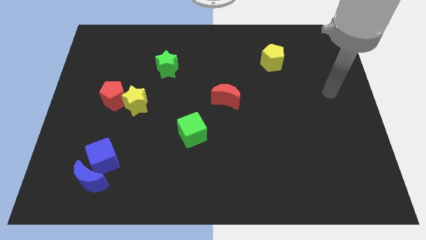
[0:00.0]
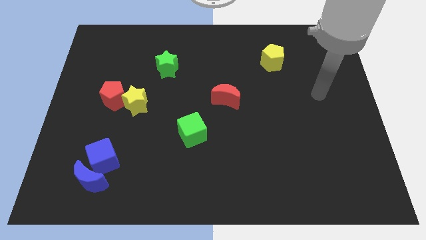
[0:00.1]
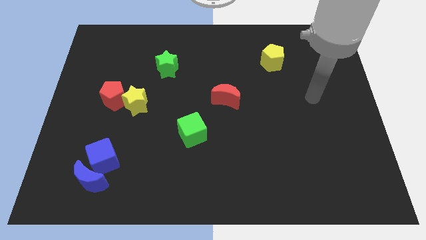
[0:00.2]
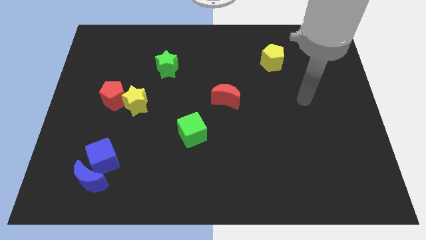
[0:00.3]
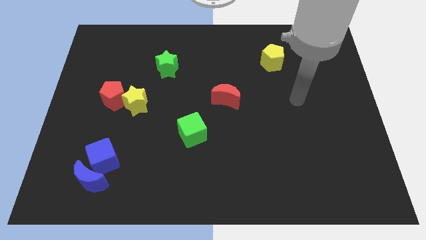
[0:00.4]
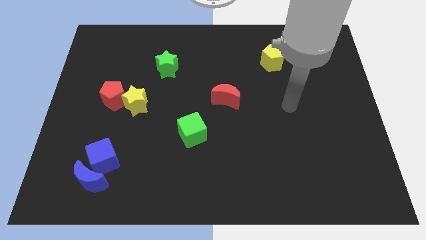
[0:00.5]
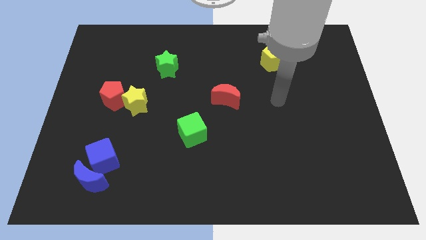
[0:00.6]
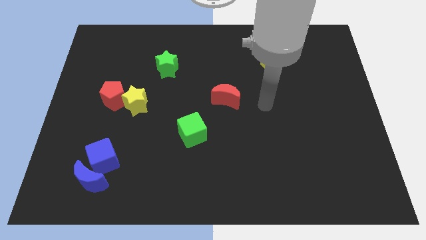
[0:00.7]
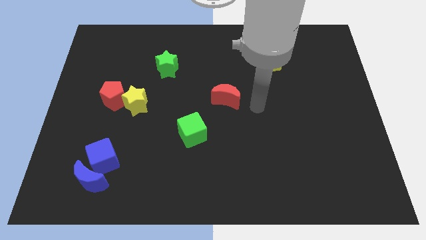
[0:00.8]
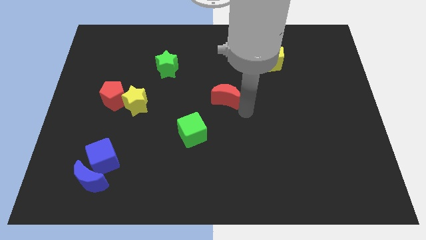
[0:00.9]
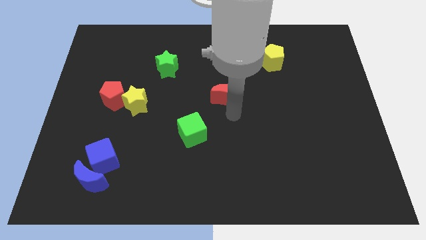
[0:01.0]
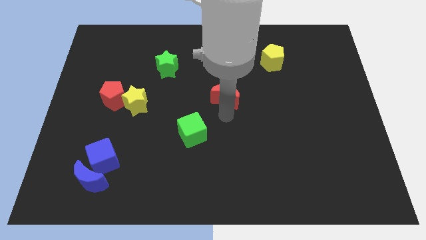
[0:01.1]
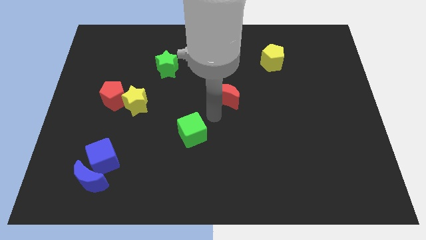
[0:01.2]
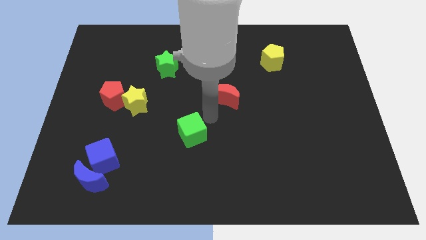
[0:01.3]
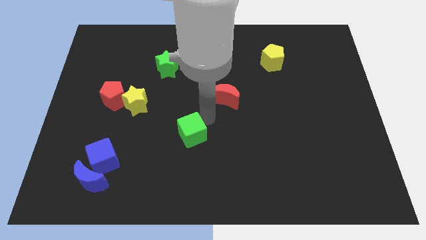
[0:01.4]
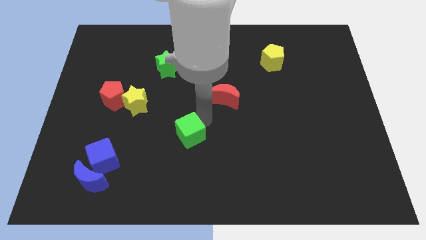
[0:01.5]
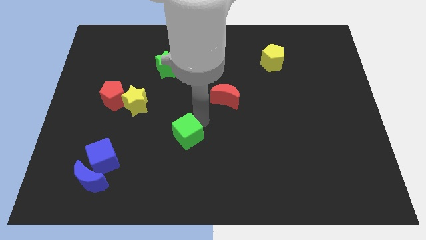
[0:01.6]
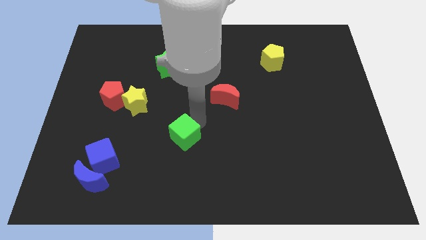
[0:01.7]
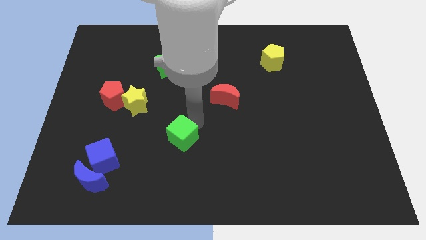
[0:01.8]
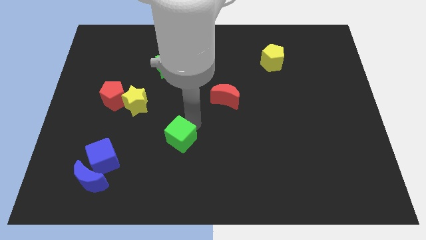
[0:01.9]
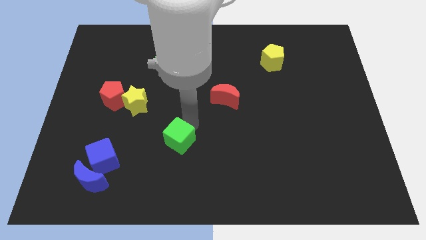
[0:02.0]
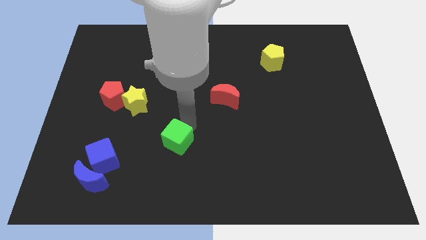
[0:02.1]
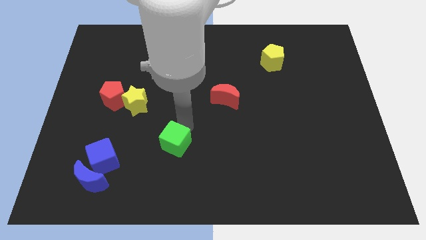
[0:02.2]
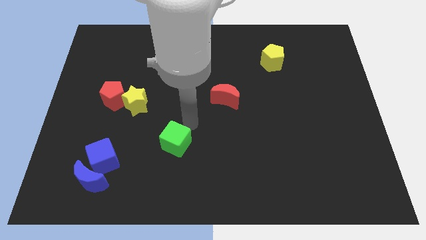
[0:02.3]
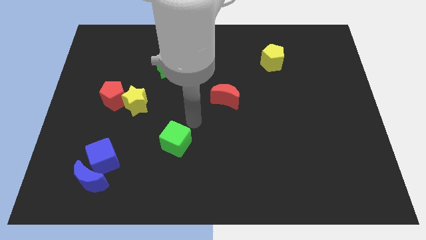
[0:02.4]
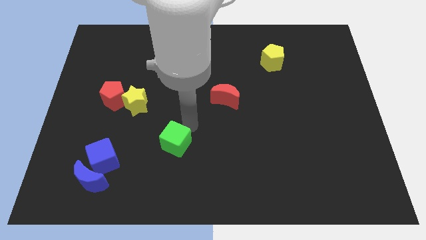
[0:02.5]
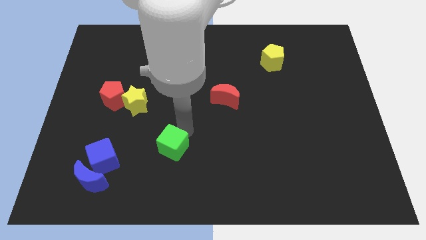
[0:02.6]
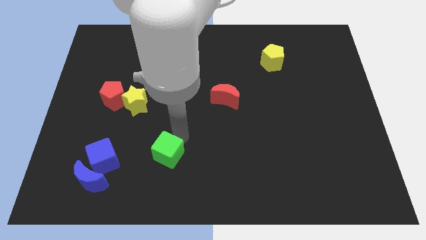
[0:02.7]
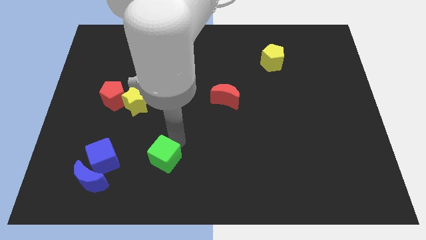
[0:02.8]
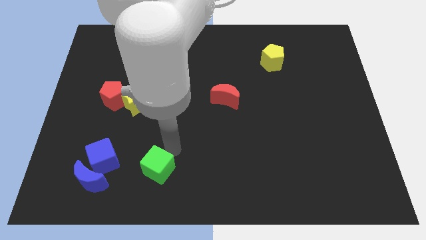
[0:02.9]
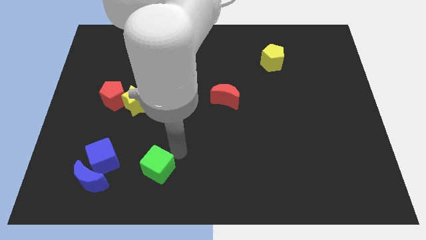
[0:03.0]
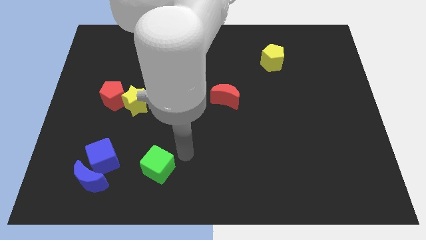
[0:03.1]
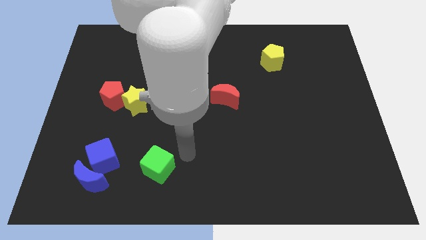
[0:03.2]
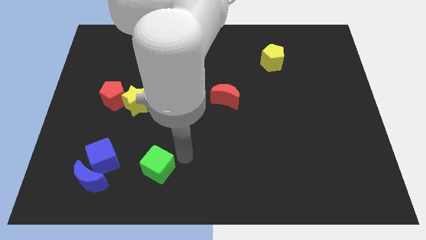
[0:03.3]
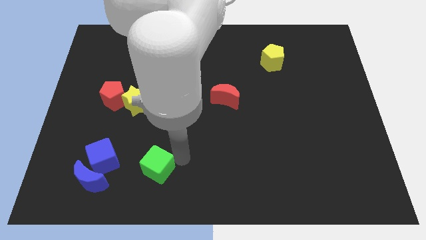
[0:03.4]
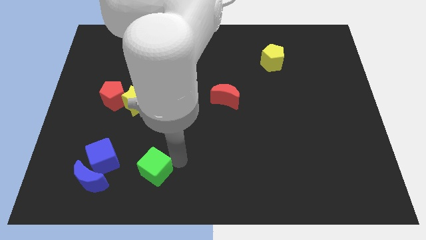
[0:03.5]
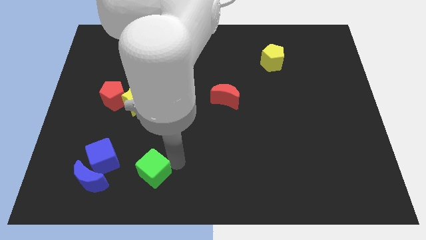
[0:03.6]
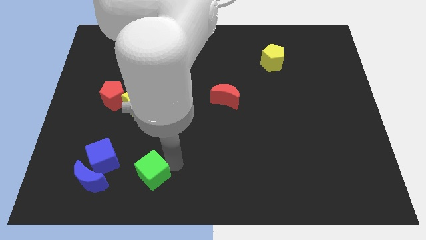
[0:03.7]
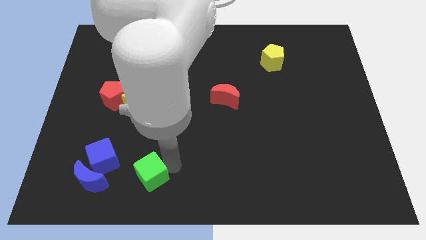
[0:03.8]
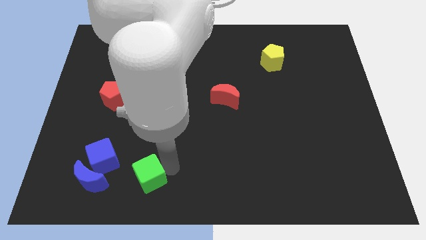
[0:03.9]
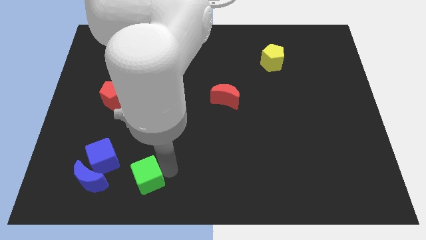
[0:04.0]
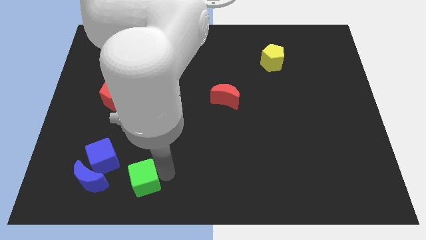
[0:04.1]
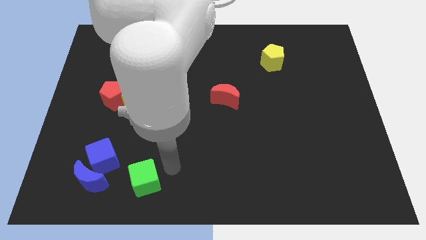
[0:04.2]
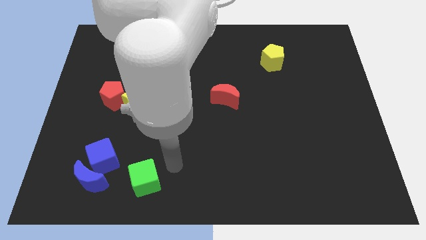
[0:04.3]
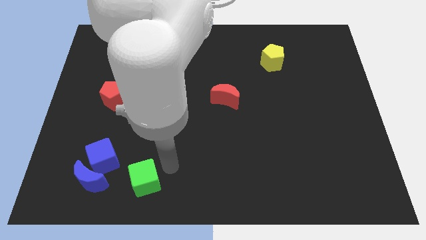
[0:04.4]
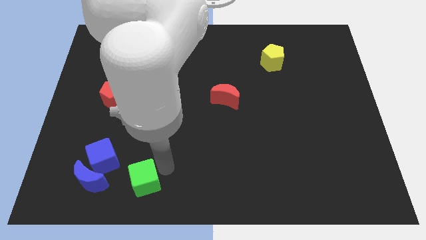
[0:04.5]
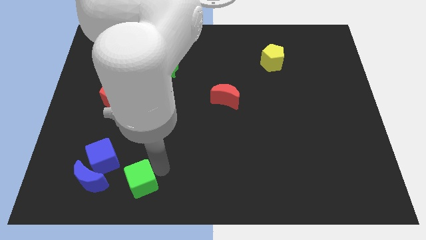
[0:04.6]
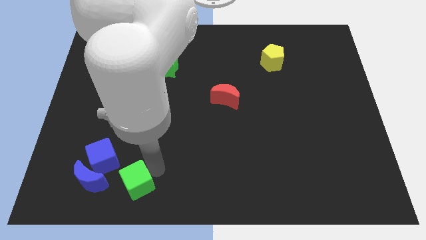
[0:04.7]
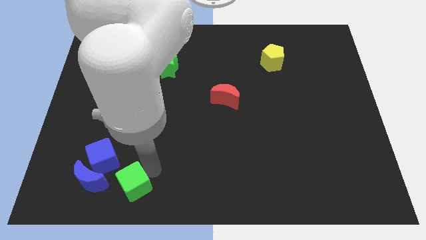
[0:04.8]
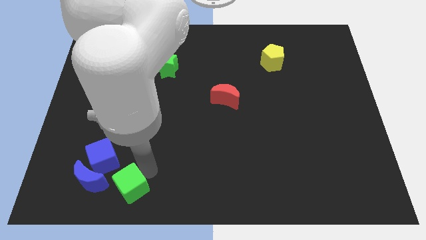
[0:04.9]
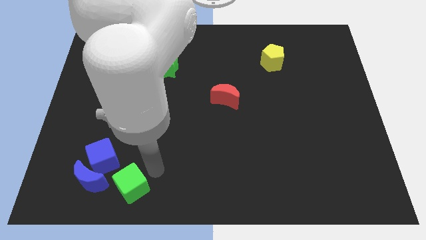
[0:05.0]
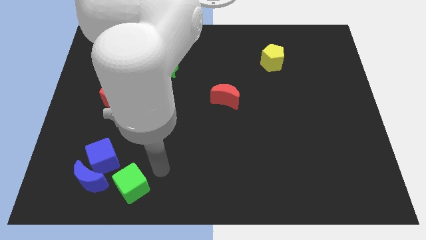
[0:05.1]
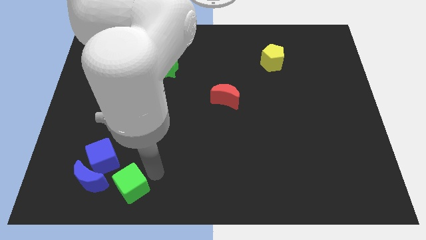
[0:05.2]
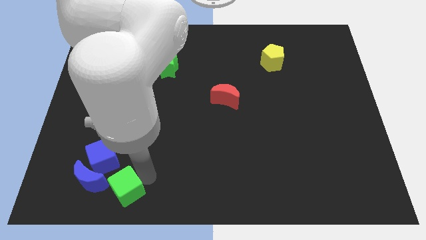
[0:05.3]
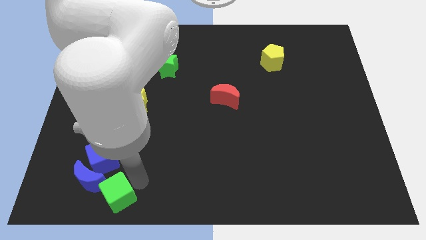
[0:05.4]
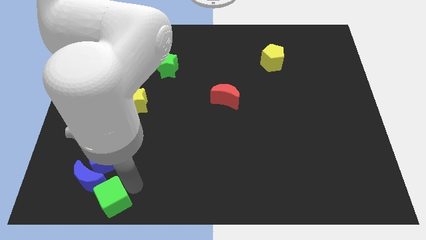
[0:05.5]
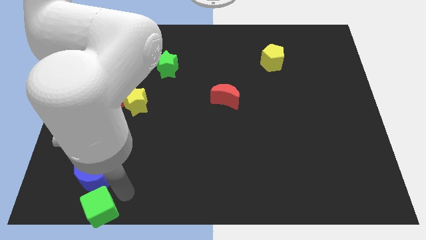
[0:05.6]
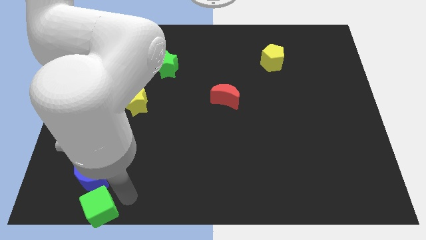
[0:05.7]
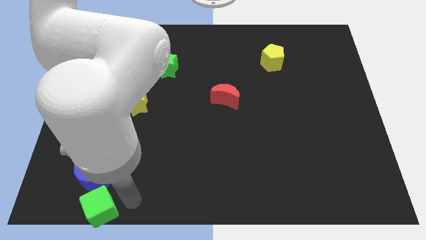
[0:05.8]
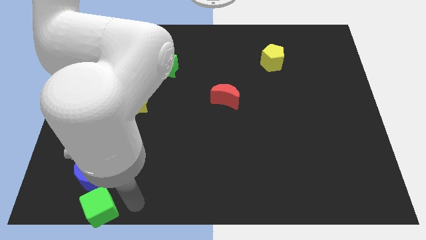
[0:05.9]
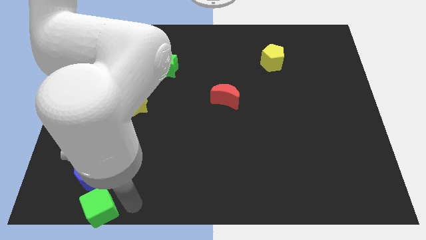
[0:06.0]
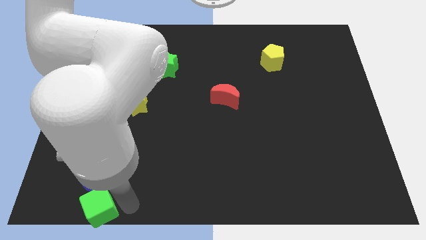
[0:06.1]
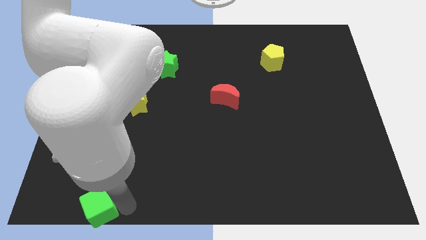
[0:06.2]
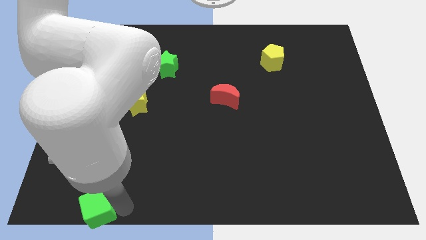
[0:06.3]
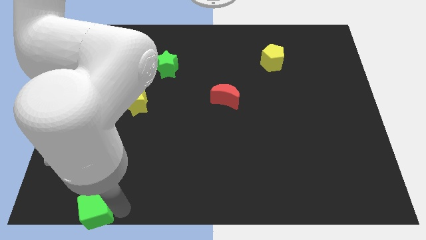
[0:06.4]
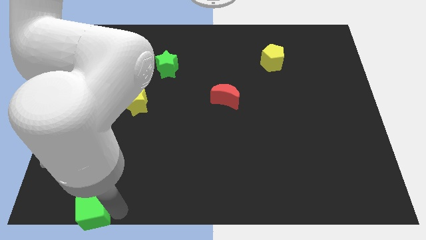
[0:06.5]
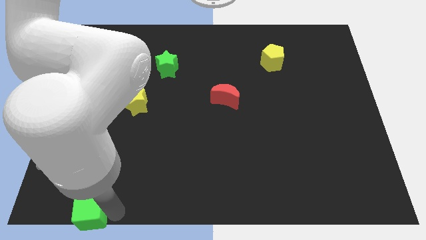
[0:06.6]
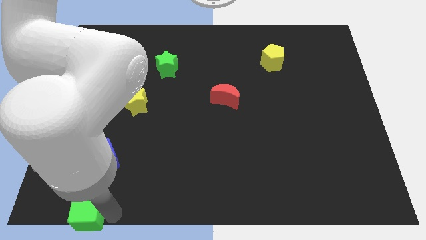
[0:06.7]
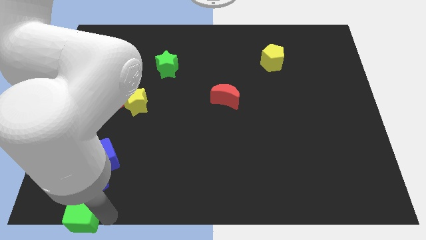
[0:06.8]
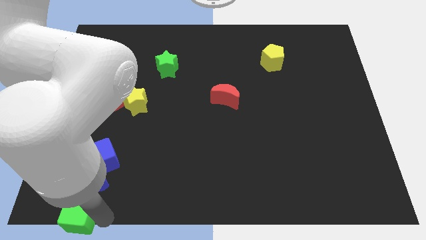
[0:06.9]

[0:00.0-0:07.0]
put the green cube to the bottom left of the board
